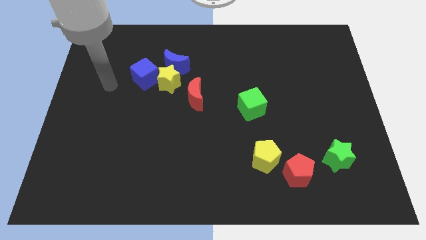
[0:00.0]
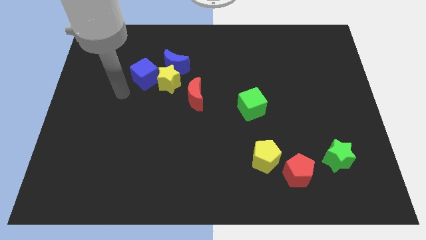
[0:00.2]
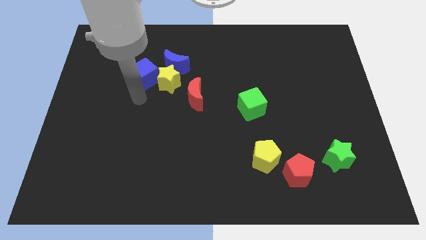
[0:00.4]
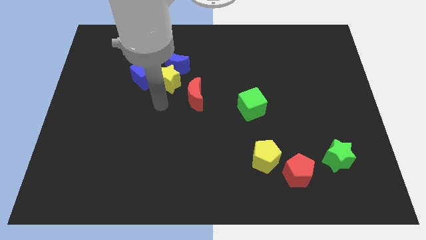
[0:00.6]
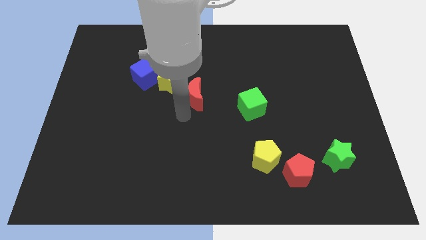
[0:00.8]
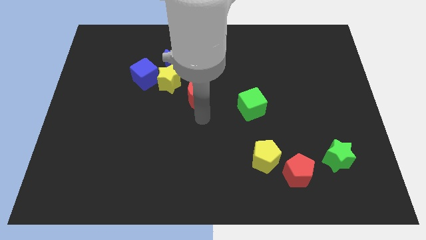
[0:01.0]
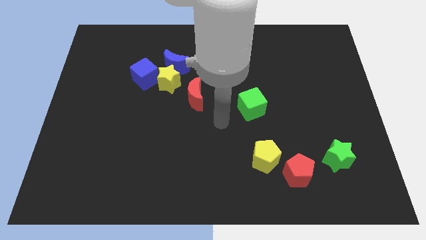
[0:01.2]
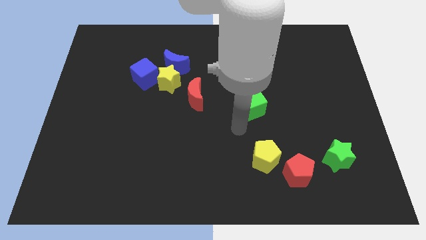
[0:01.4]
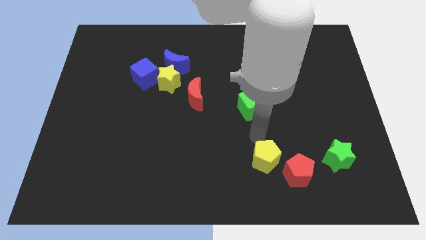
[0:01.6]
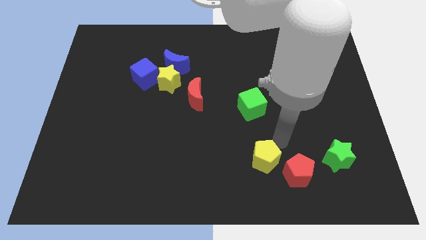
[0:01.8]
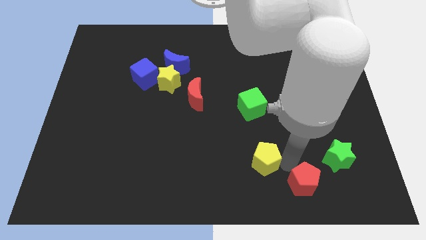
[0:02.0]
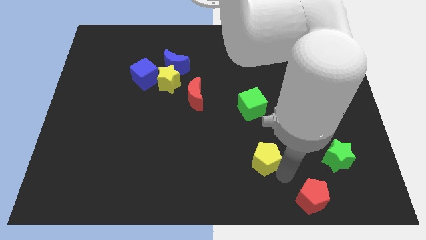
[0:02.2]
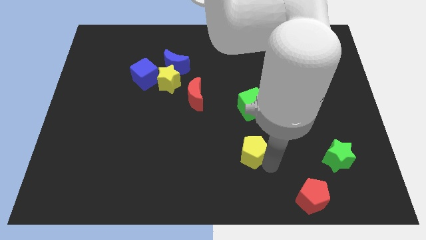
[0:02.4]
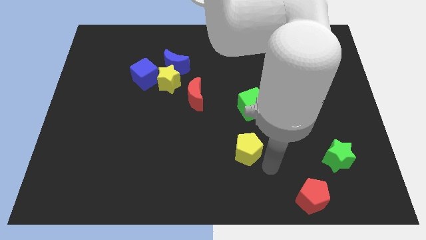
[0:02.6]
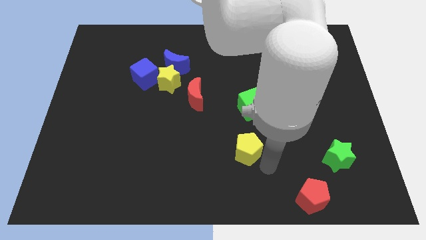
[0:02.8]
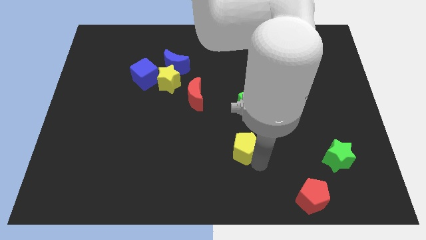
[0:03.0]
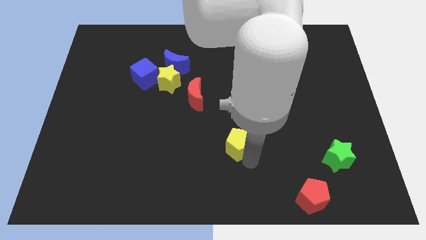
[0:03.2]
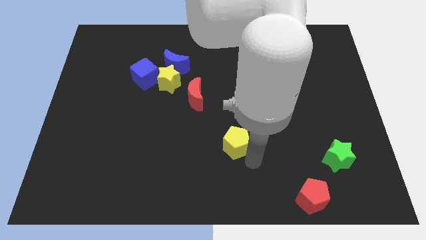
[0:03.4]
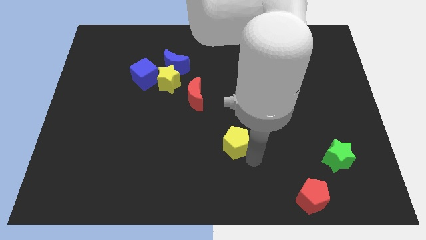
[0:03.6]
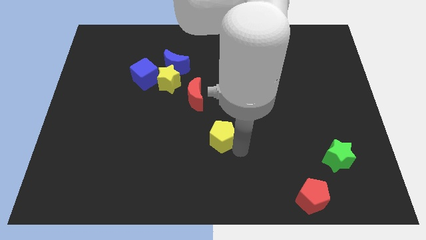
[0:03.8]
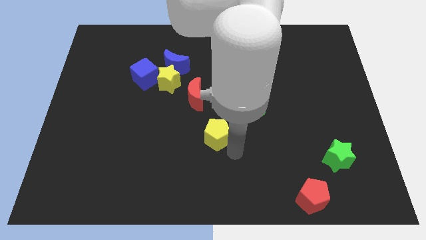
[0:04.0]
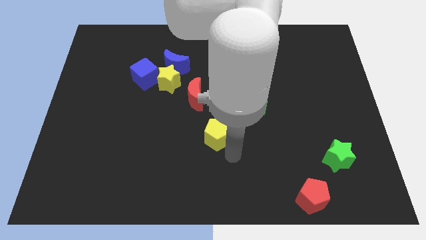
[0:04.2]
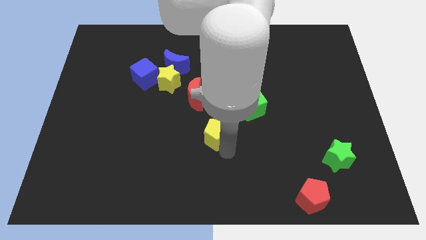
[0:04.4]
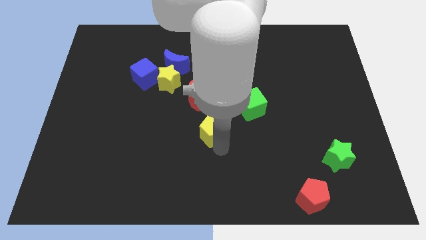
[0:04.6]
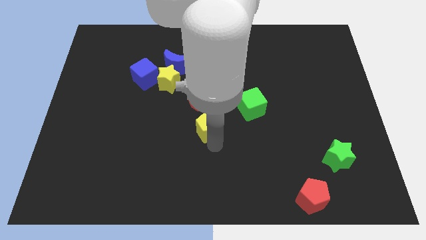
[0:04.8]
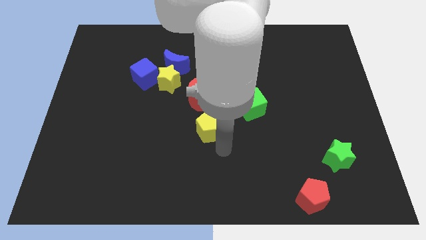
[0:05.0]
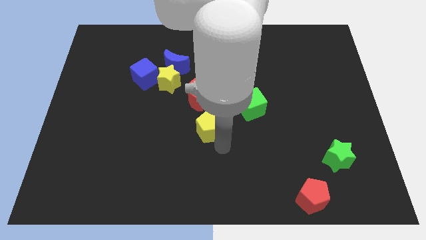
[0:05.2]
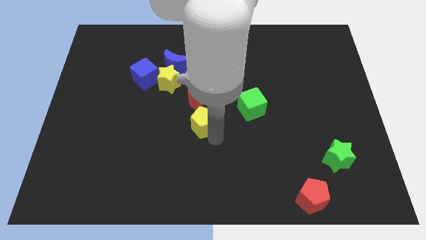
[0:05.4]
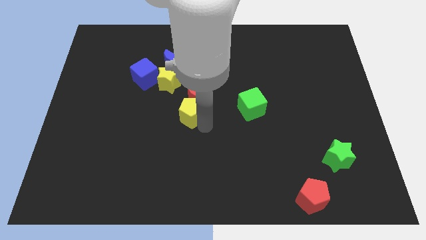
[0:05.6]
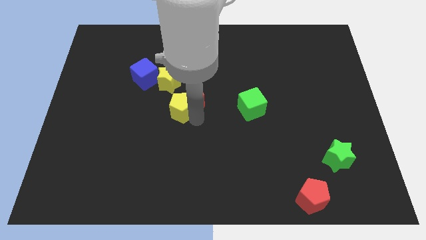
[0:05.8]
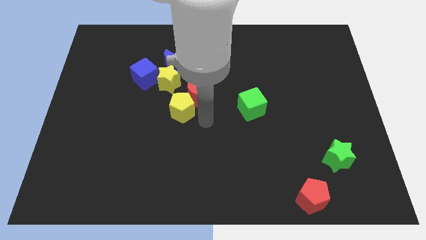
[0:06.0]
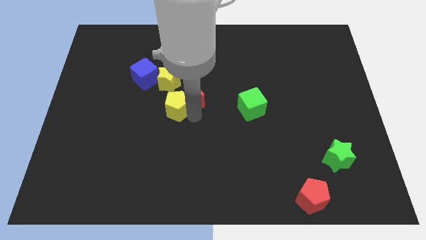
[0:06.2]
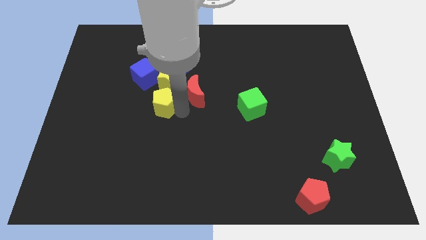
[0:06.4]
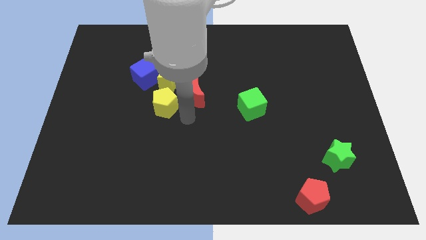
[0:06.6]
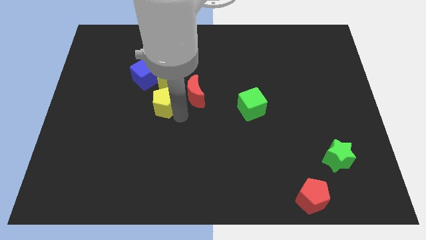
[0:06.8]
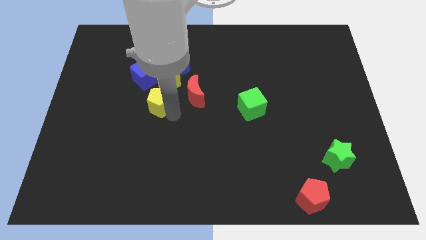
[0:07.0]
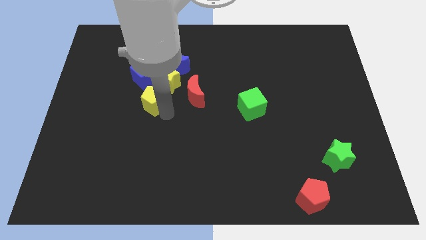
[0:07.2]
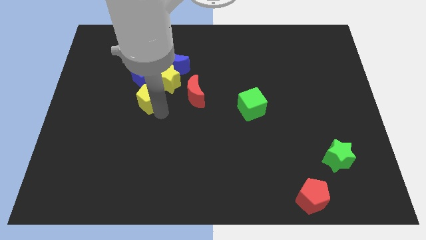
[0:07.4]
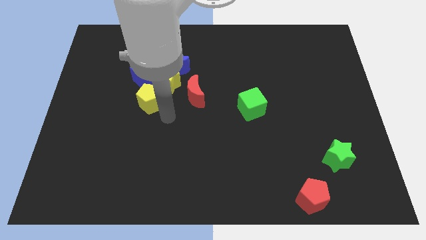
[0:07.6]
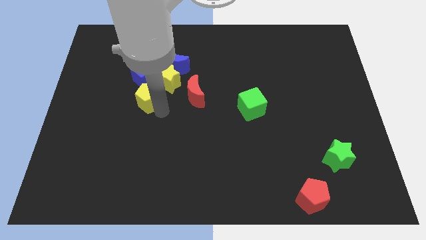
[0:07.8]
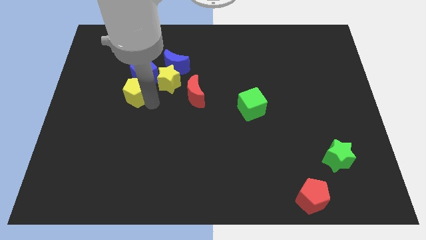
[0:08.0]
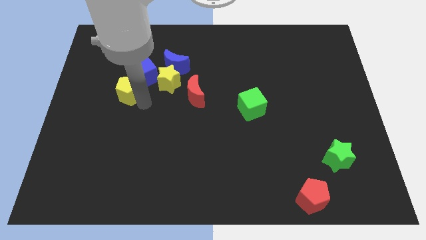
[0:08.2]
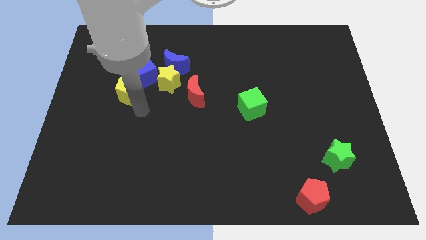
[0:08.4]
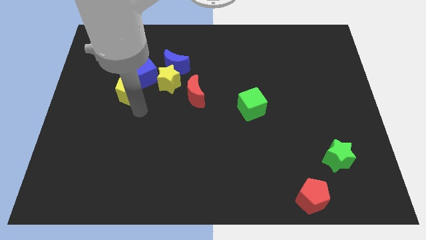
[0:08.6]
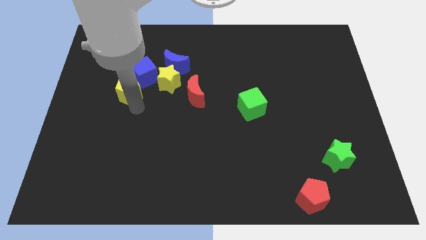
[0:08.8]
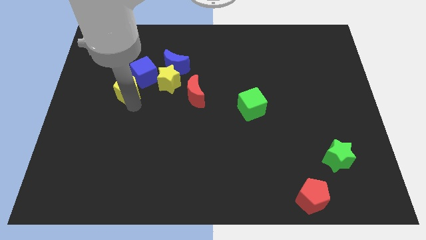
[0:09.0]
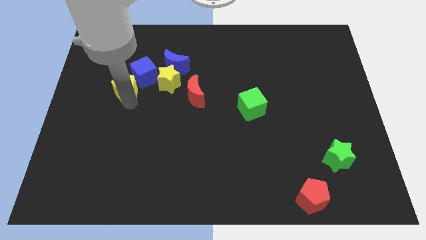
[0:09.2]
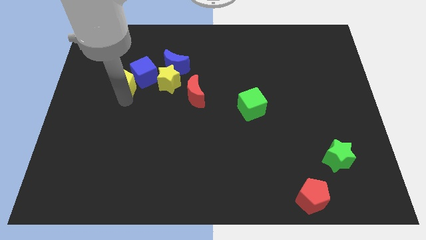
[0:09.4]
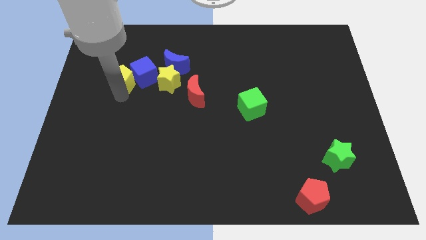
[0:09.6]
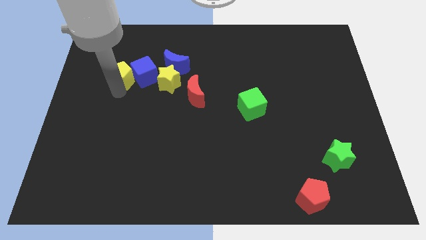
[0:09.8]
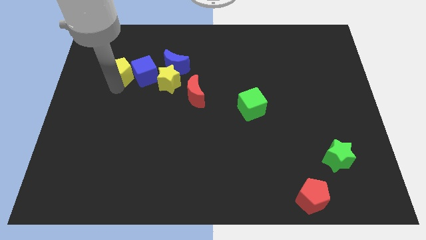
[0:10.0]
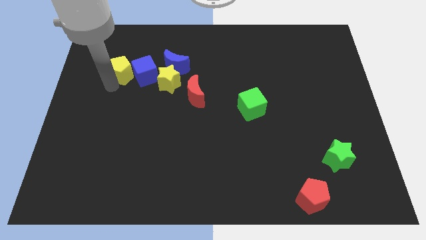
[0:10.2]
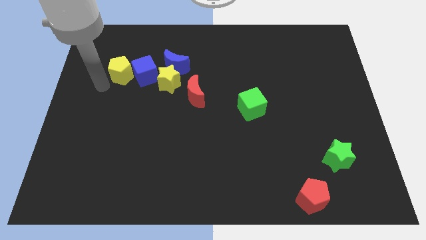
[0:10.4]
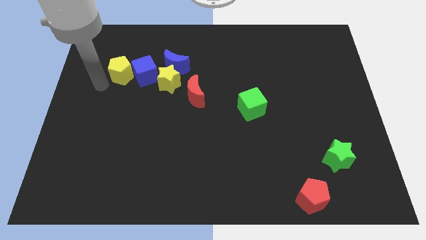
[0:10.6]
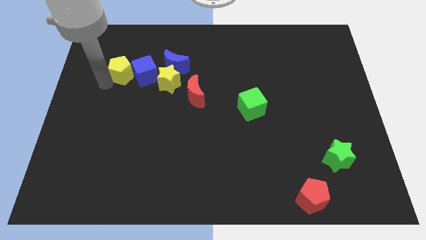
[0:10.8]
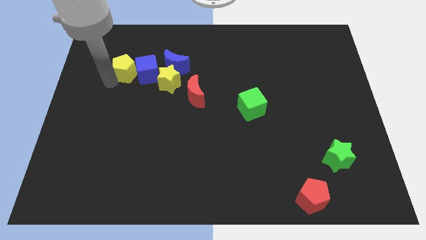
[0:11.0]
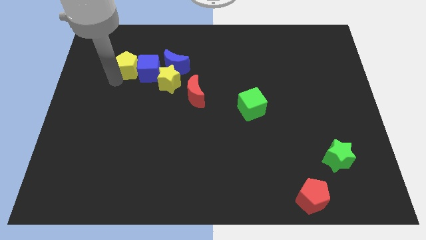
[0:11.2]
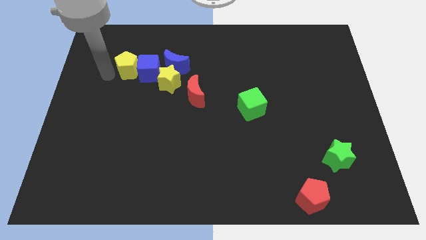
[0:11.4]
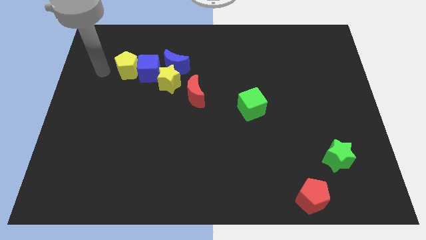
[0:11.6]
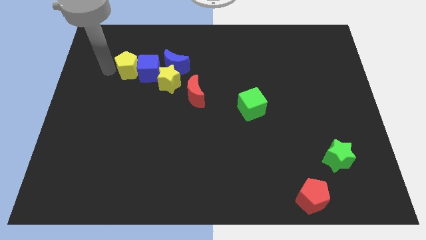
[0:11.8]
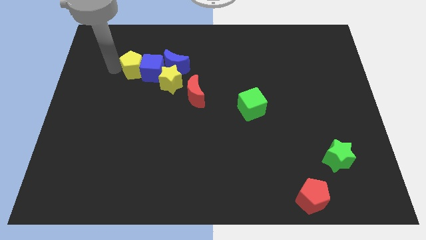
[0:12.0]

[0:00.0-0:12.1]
push the yellow pentagon diagonally up and to the left of the yellow star
